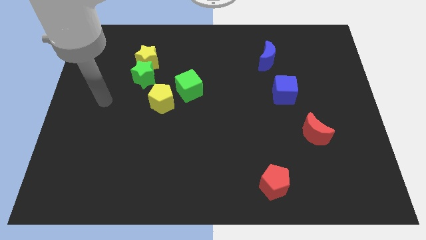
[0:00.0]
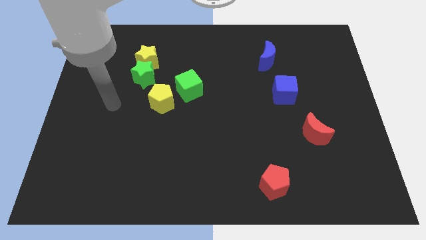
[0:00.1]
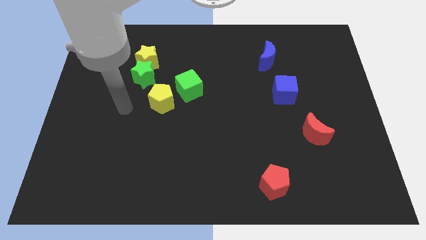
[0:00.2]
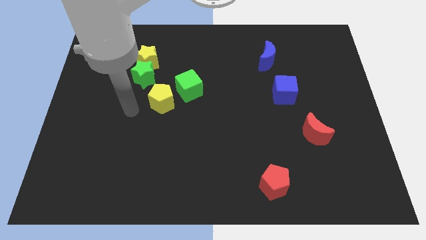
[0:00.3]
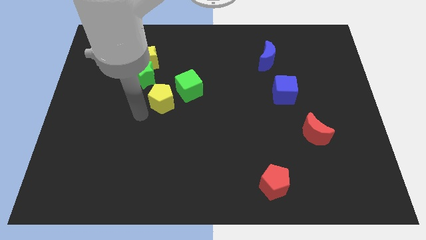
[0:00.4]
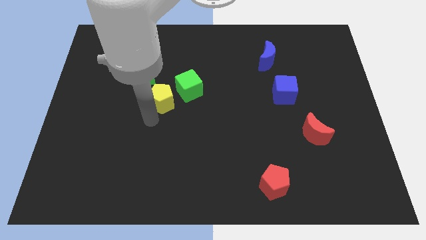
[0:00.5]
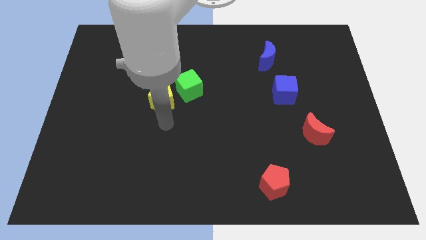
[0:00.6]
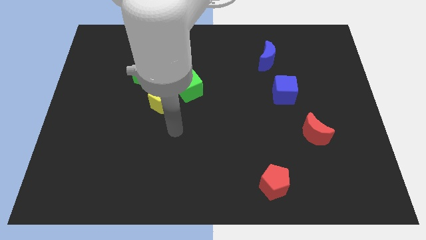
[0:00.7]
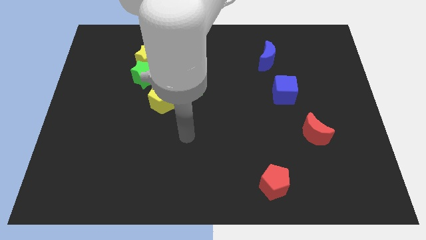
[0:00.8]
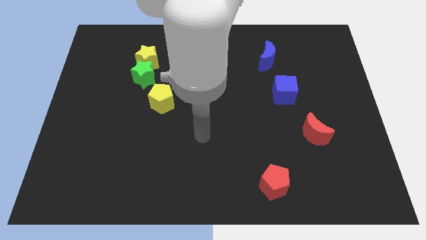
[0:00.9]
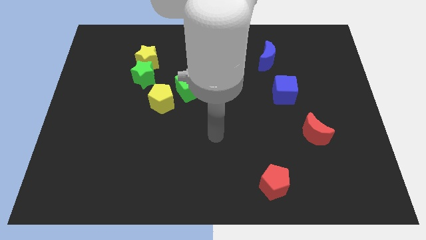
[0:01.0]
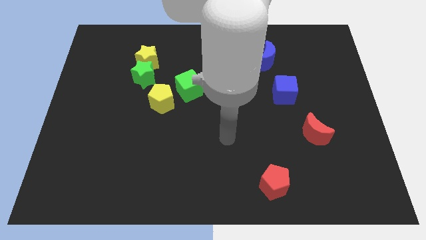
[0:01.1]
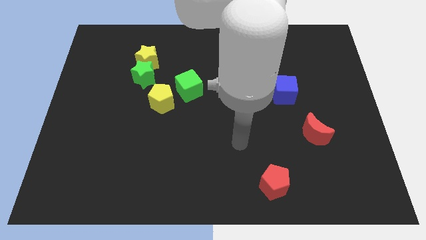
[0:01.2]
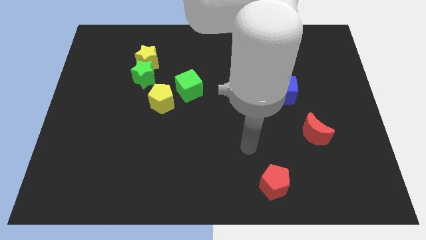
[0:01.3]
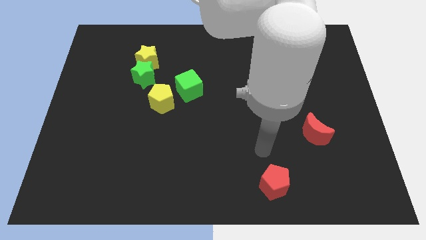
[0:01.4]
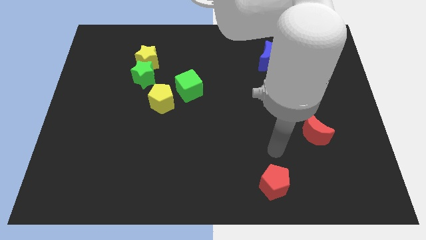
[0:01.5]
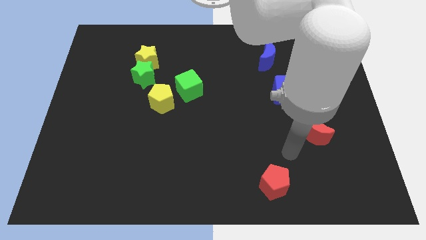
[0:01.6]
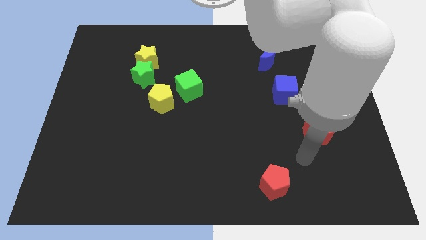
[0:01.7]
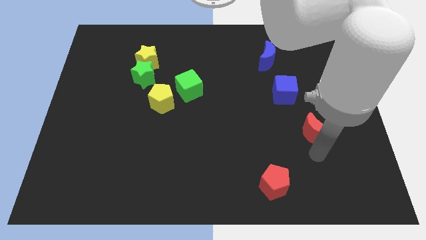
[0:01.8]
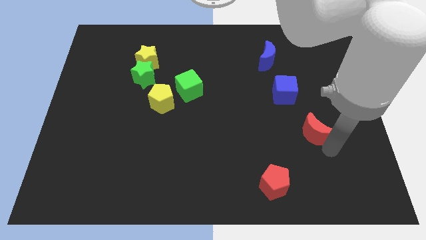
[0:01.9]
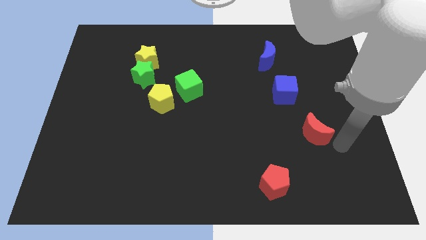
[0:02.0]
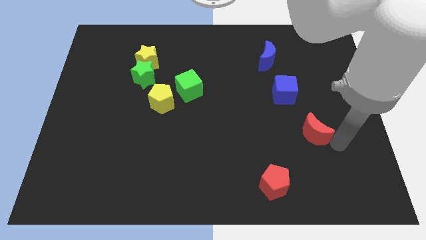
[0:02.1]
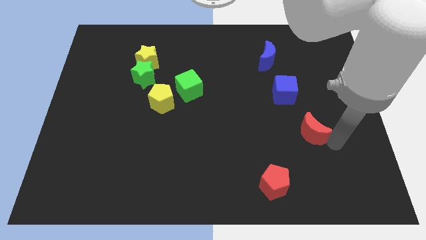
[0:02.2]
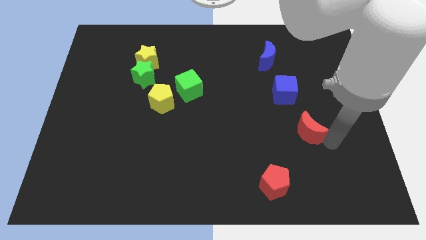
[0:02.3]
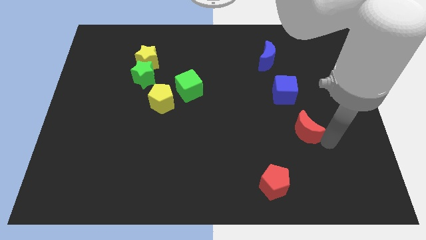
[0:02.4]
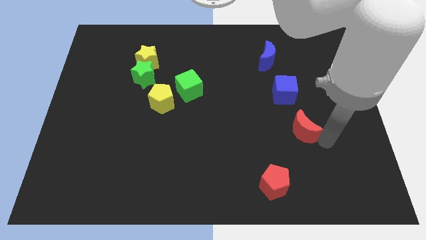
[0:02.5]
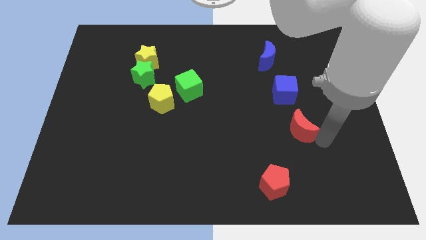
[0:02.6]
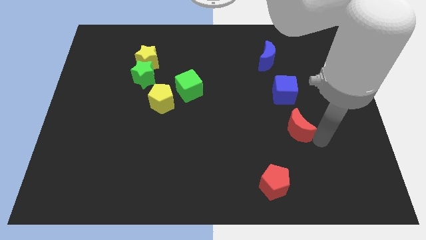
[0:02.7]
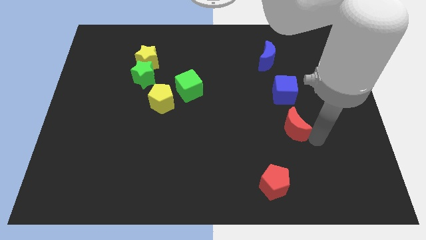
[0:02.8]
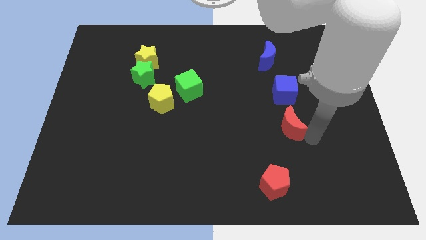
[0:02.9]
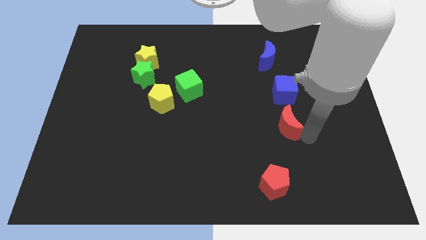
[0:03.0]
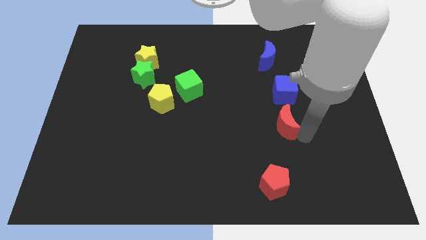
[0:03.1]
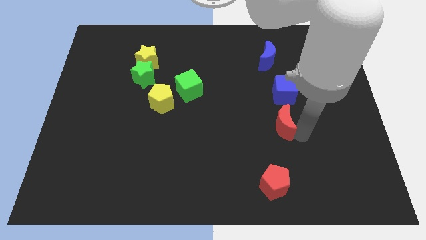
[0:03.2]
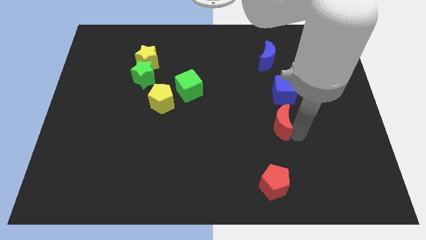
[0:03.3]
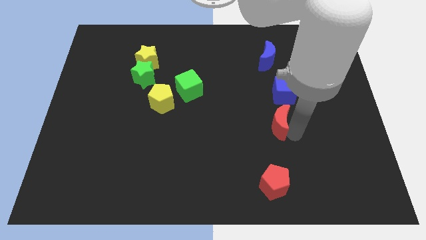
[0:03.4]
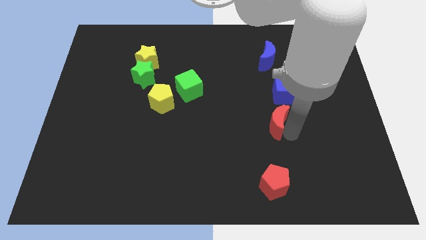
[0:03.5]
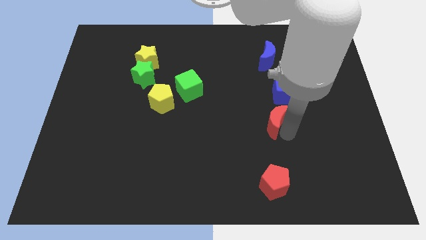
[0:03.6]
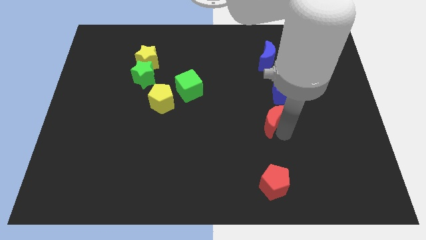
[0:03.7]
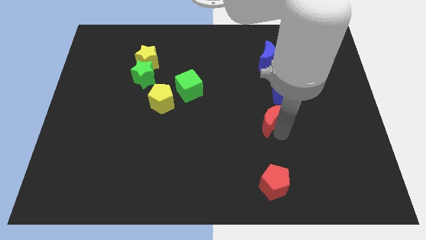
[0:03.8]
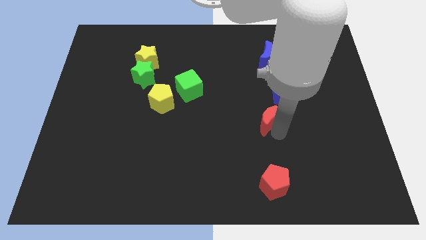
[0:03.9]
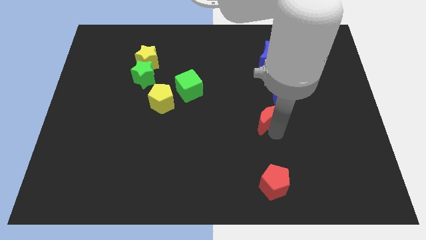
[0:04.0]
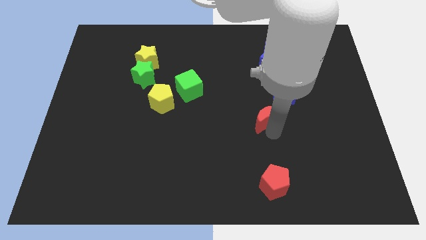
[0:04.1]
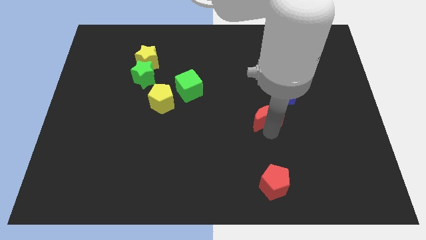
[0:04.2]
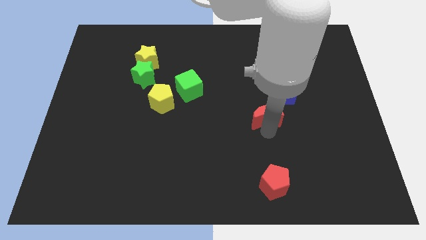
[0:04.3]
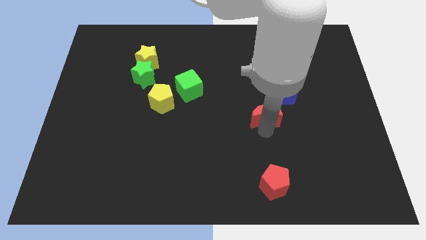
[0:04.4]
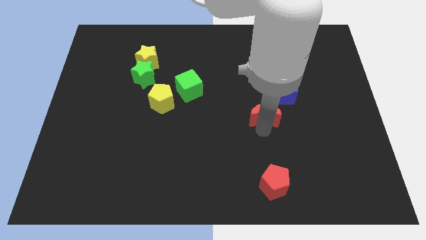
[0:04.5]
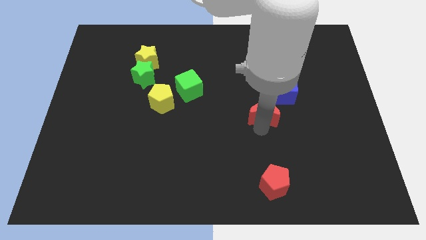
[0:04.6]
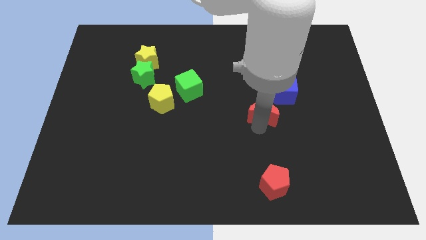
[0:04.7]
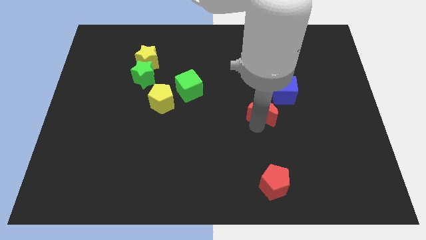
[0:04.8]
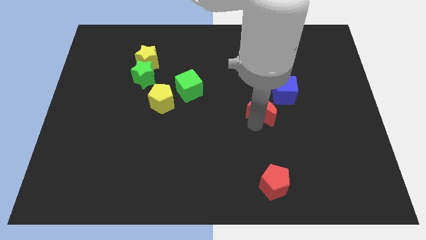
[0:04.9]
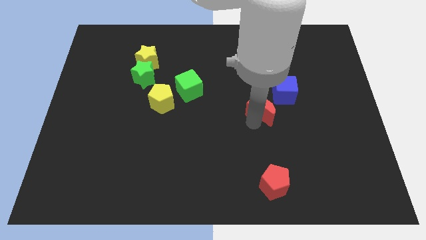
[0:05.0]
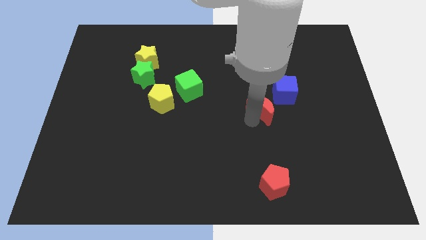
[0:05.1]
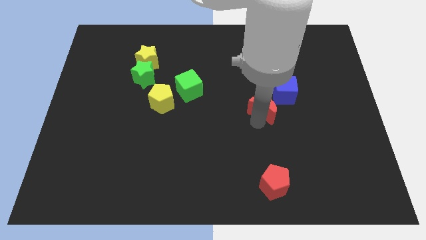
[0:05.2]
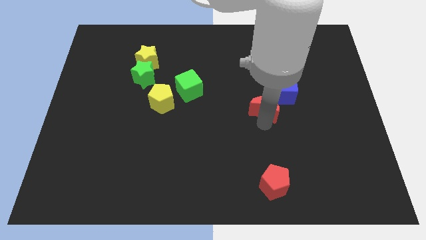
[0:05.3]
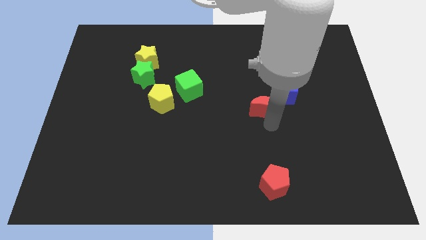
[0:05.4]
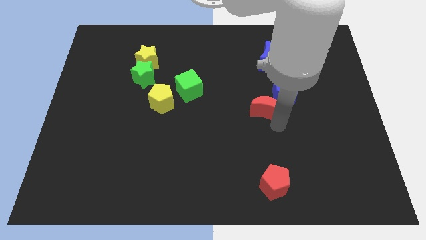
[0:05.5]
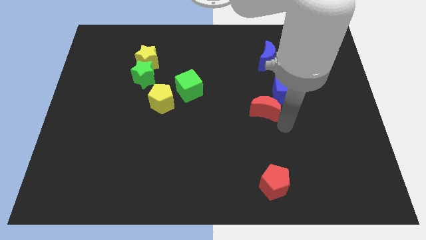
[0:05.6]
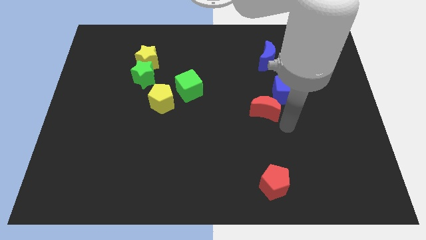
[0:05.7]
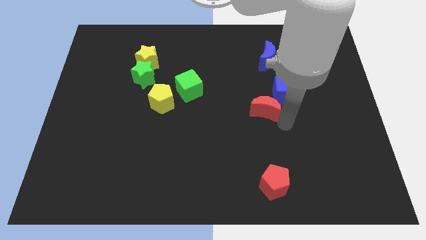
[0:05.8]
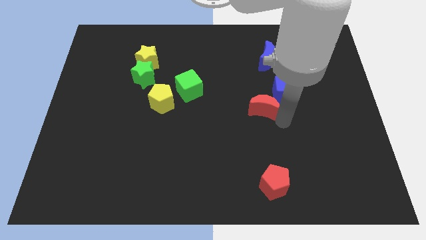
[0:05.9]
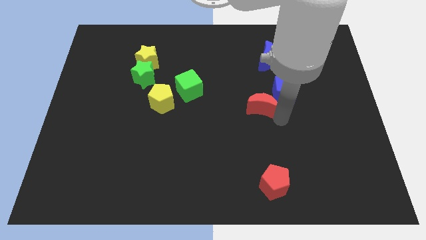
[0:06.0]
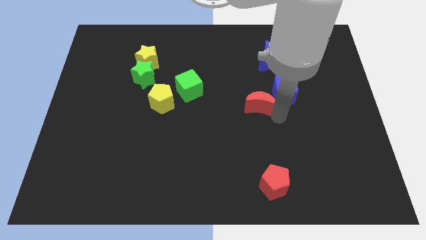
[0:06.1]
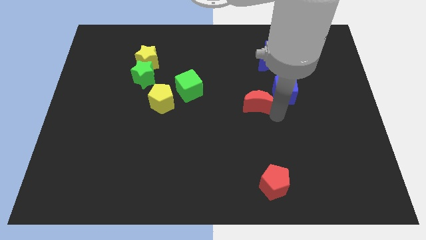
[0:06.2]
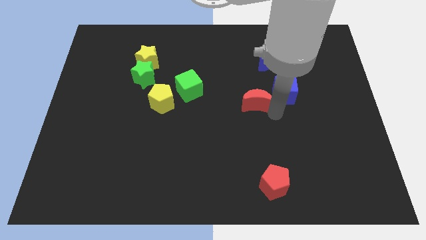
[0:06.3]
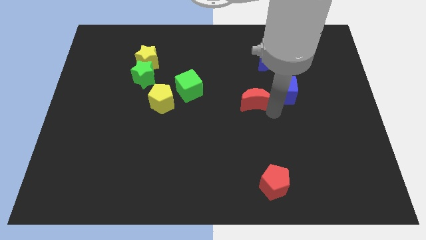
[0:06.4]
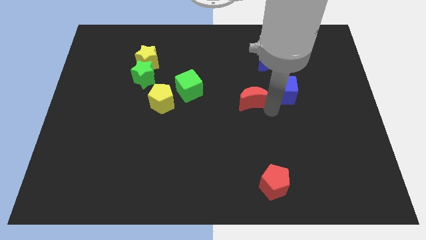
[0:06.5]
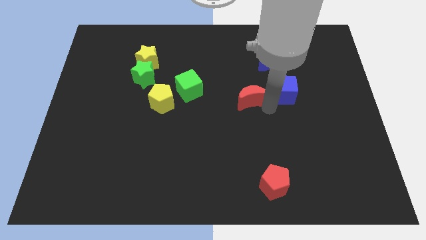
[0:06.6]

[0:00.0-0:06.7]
move the red moon just right of the green cube
